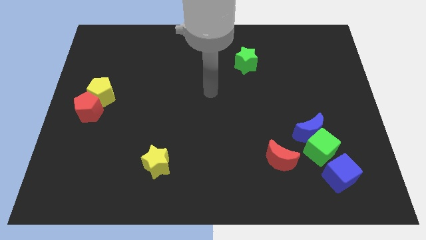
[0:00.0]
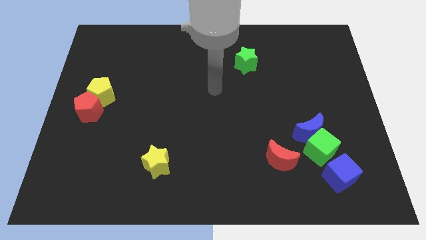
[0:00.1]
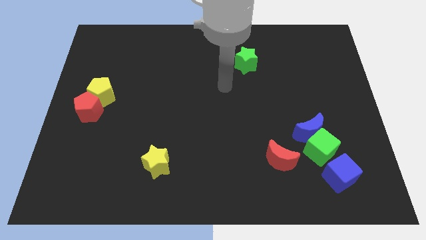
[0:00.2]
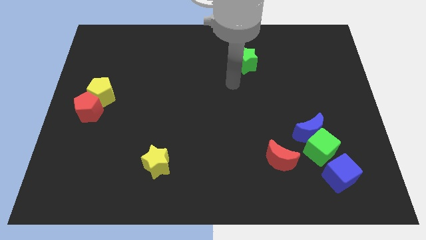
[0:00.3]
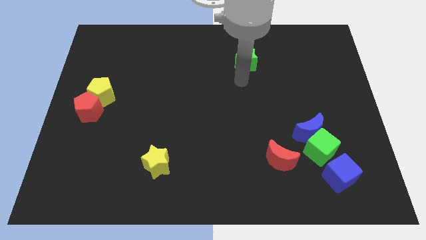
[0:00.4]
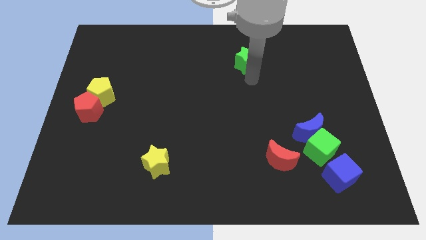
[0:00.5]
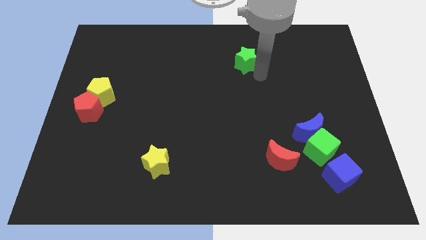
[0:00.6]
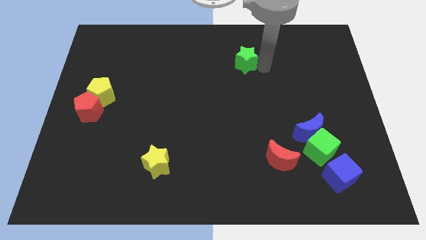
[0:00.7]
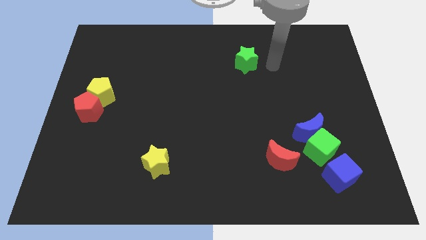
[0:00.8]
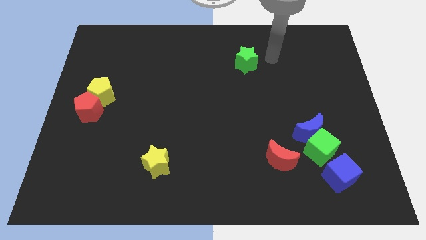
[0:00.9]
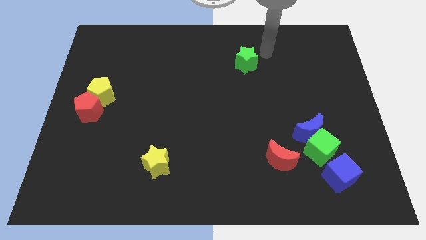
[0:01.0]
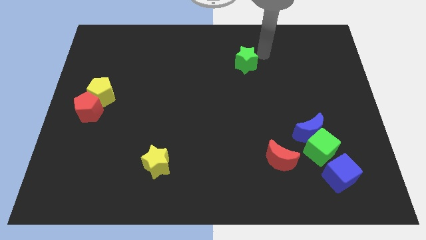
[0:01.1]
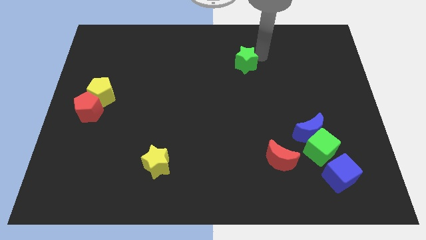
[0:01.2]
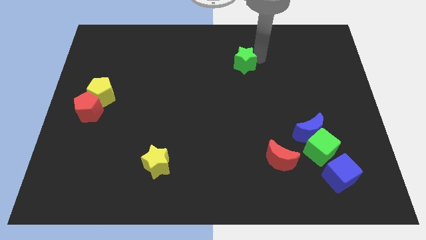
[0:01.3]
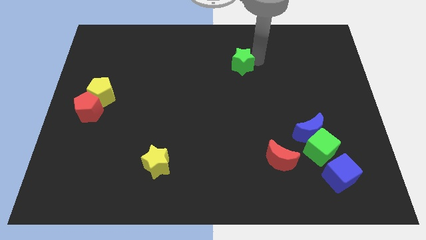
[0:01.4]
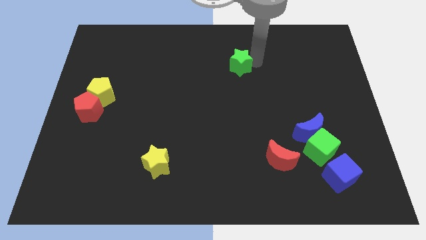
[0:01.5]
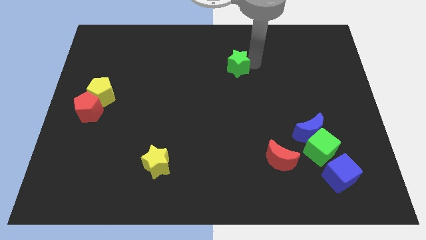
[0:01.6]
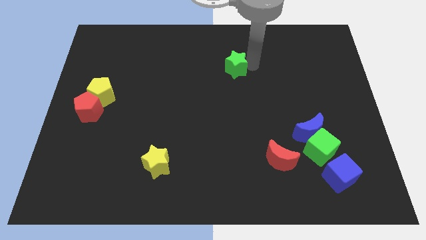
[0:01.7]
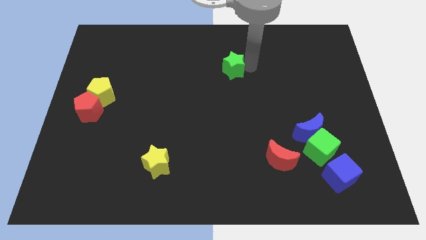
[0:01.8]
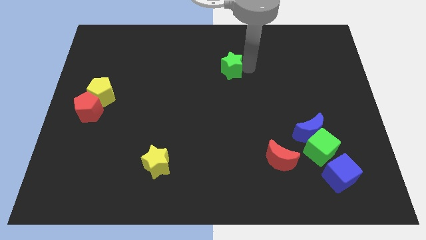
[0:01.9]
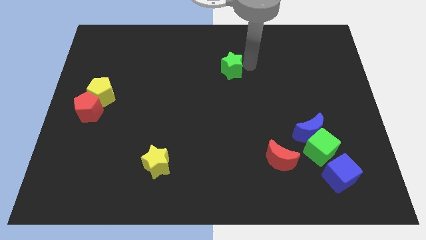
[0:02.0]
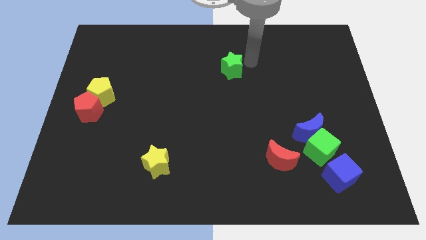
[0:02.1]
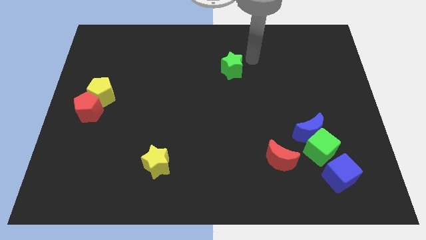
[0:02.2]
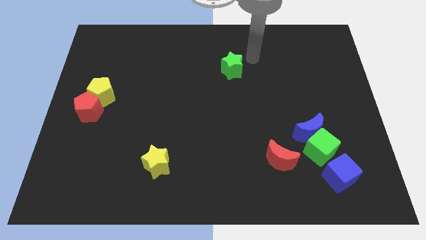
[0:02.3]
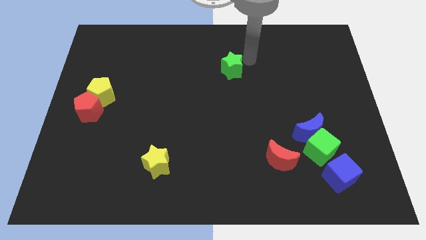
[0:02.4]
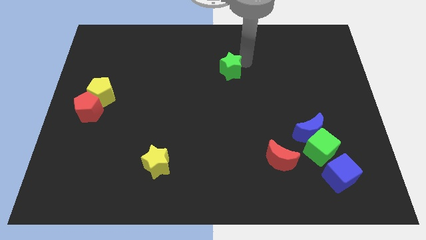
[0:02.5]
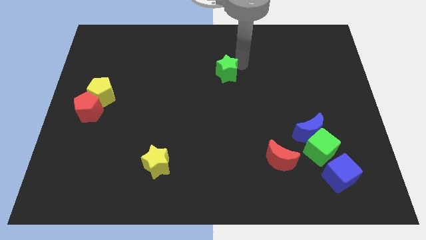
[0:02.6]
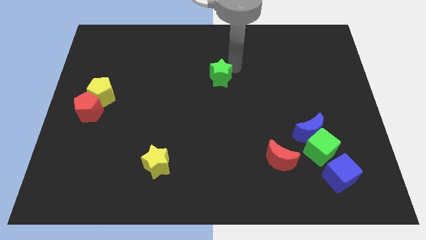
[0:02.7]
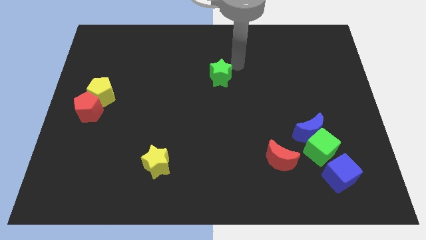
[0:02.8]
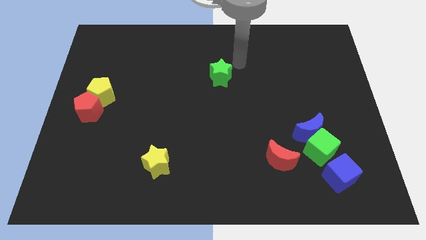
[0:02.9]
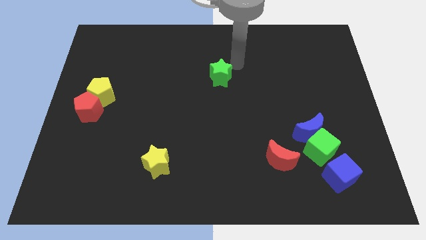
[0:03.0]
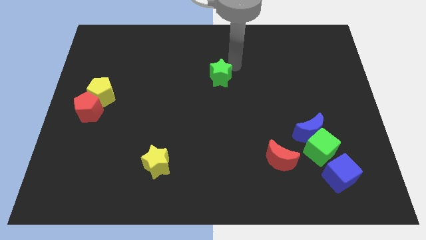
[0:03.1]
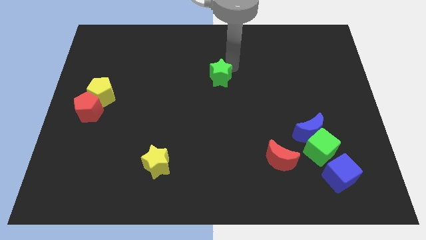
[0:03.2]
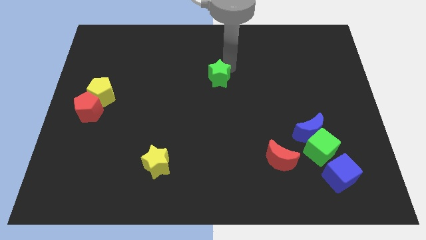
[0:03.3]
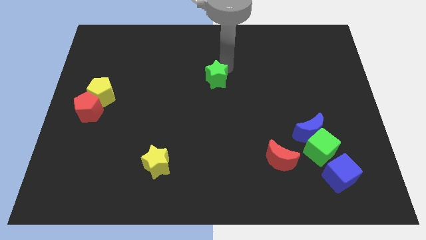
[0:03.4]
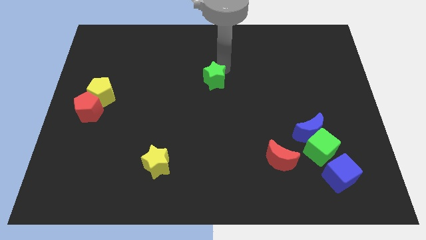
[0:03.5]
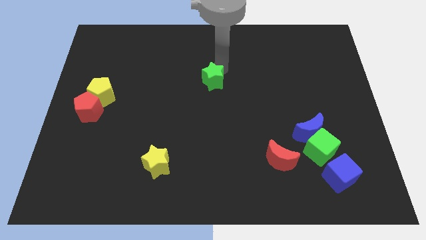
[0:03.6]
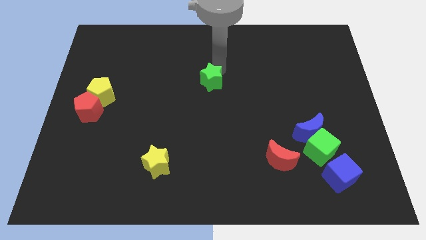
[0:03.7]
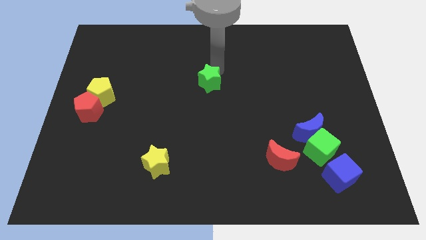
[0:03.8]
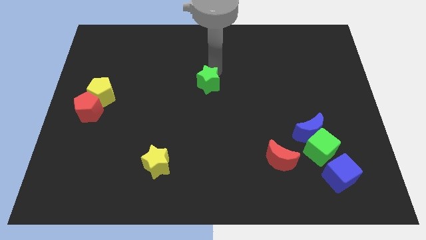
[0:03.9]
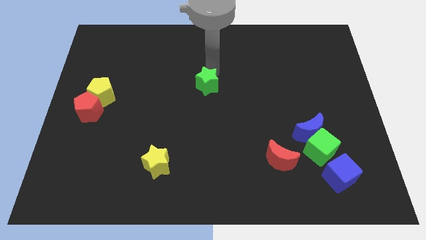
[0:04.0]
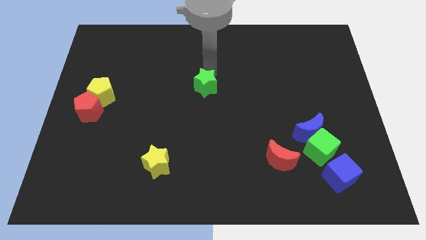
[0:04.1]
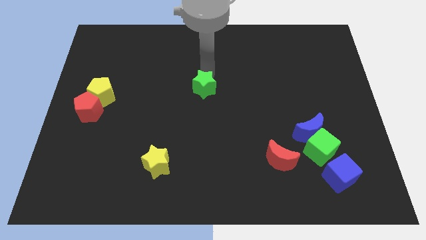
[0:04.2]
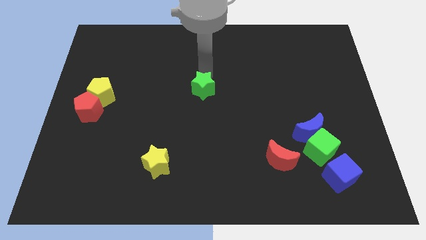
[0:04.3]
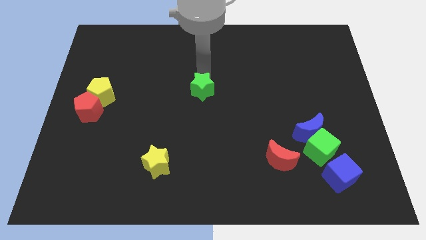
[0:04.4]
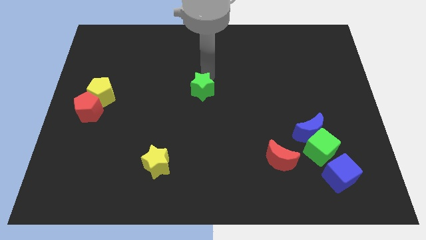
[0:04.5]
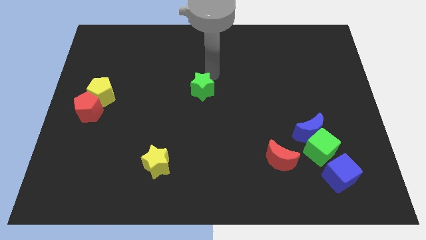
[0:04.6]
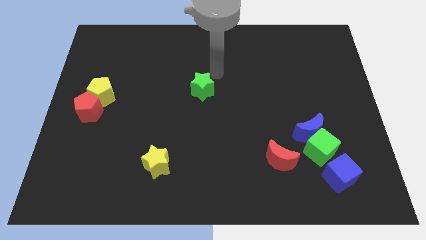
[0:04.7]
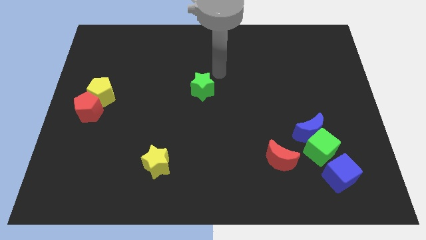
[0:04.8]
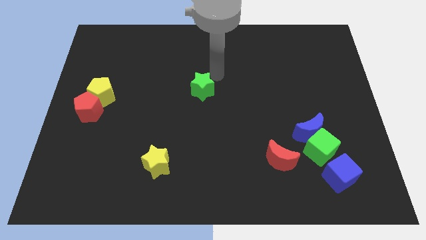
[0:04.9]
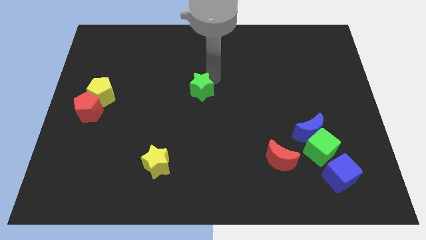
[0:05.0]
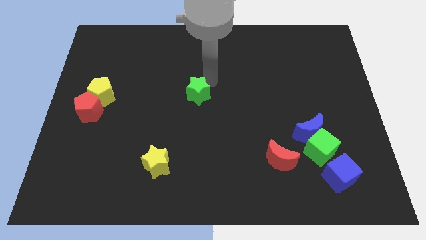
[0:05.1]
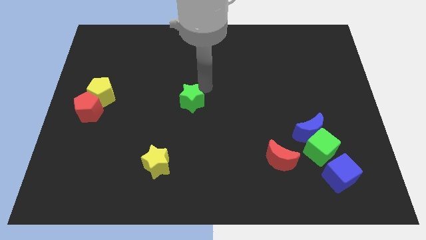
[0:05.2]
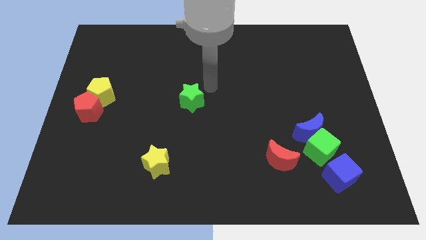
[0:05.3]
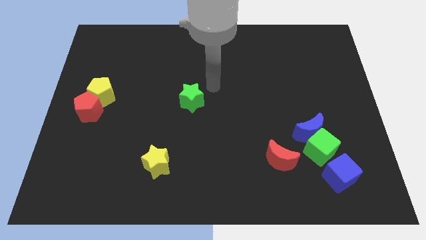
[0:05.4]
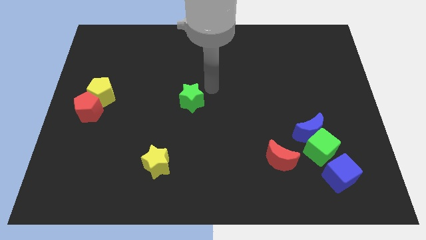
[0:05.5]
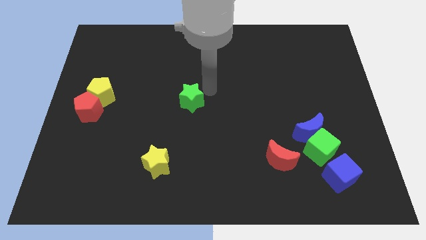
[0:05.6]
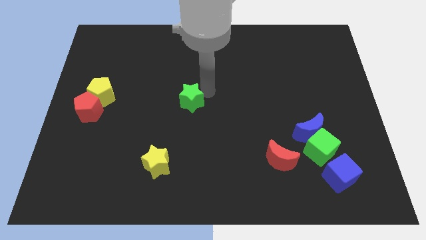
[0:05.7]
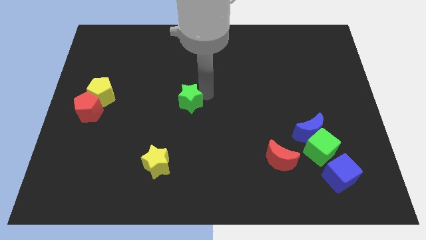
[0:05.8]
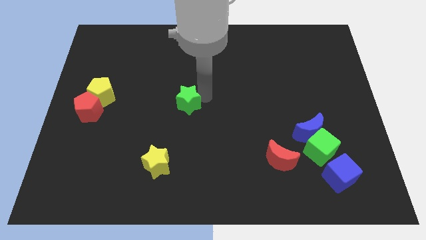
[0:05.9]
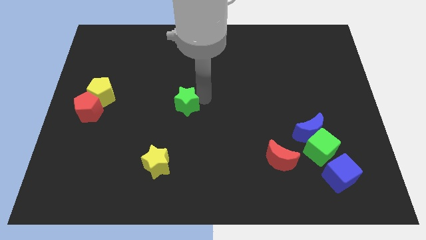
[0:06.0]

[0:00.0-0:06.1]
push the green star down and then to the left

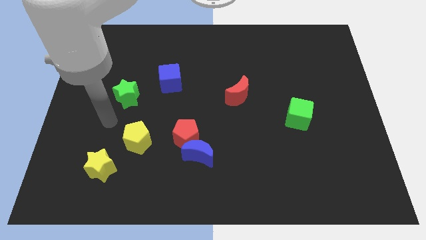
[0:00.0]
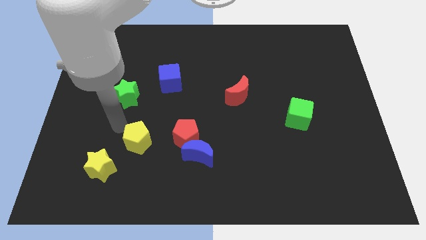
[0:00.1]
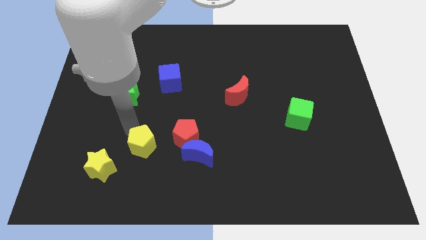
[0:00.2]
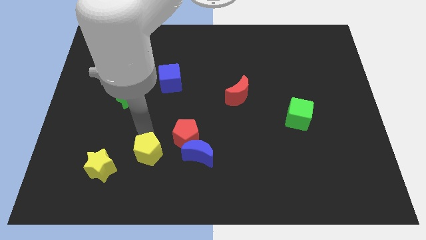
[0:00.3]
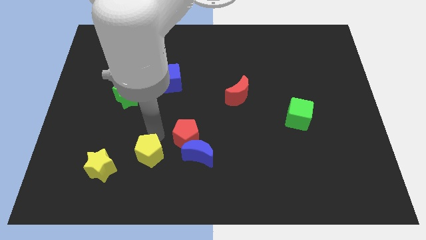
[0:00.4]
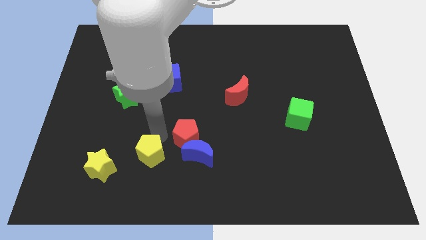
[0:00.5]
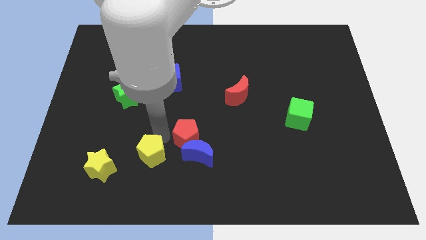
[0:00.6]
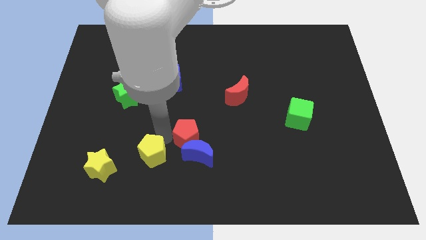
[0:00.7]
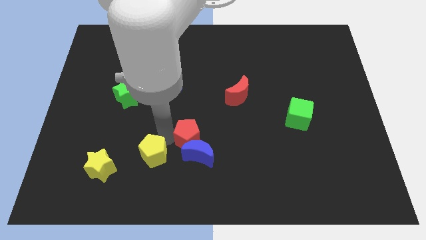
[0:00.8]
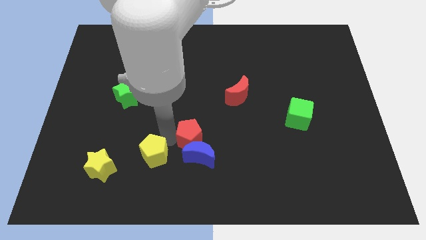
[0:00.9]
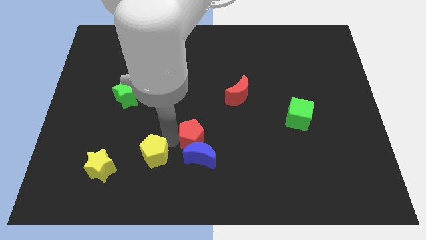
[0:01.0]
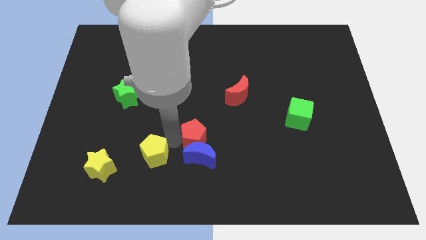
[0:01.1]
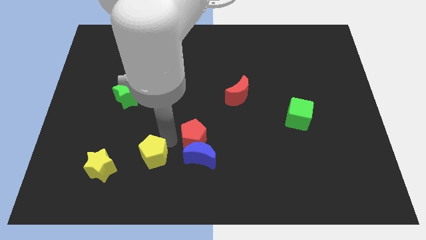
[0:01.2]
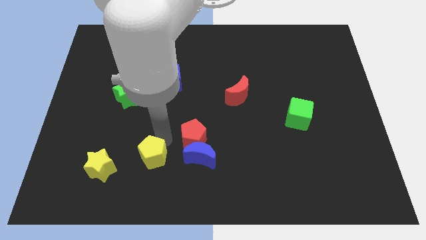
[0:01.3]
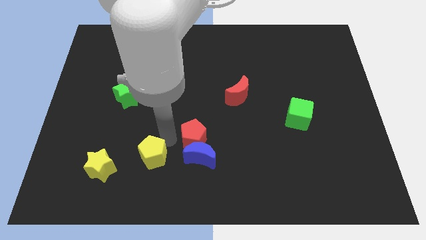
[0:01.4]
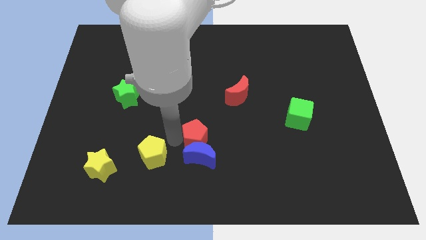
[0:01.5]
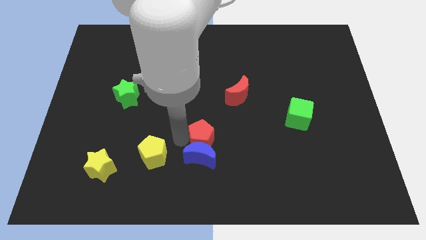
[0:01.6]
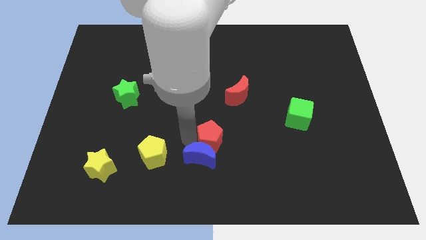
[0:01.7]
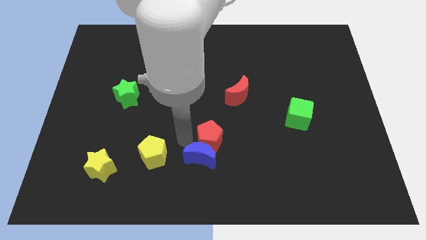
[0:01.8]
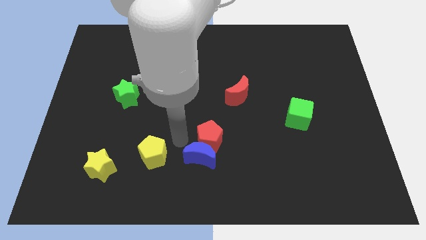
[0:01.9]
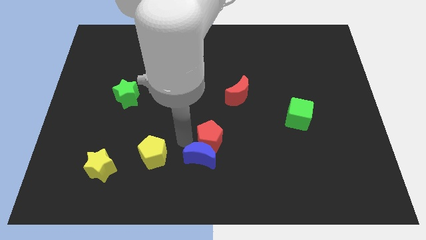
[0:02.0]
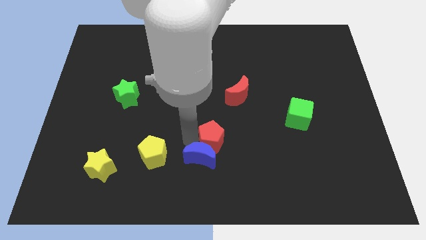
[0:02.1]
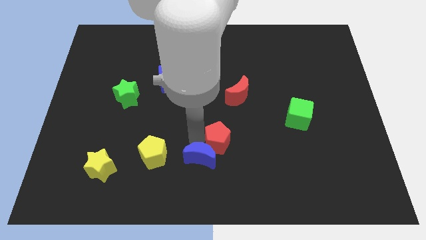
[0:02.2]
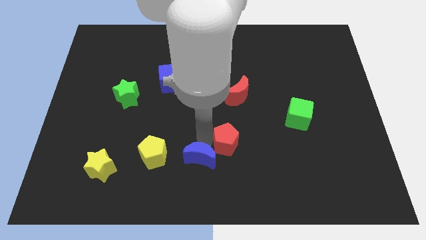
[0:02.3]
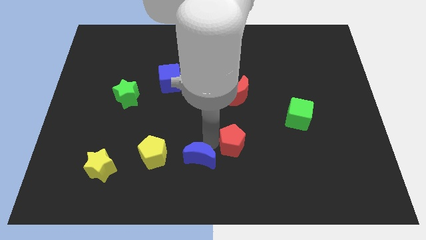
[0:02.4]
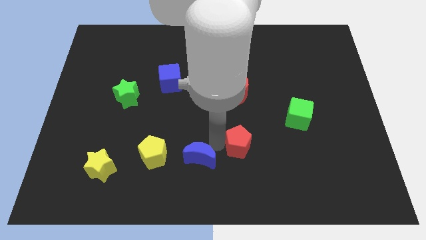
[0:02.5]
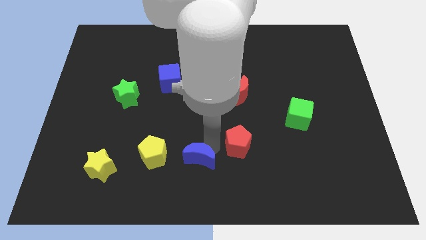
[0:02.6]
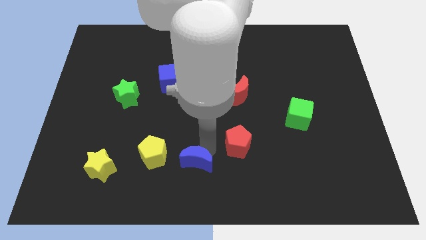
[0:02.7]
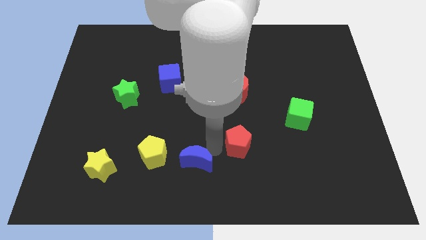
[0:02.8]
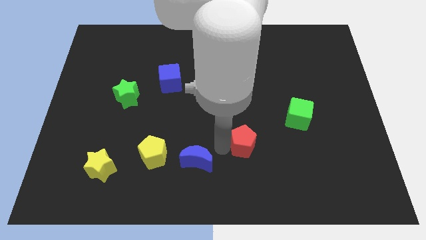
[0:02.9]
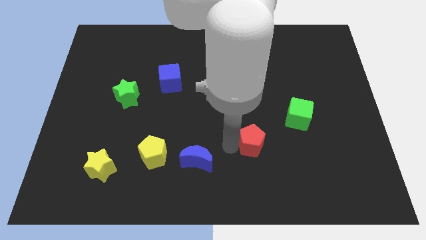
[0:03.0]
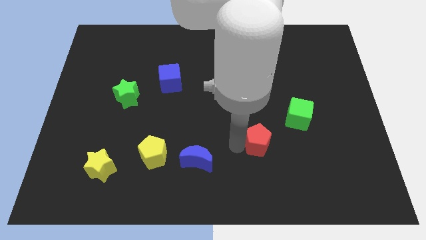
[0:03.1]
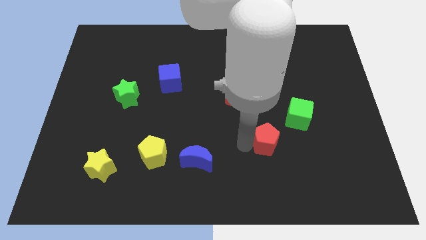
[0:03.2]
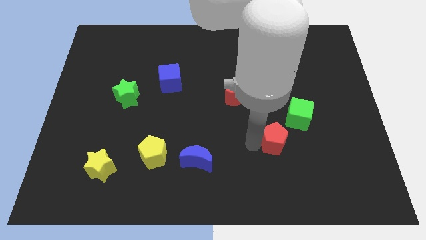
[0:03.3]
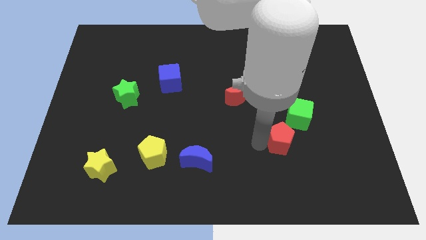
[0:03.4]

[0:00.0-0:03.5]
push the red pentagon to the right
